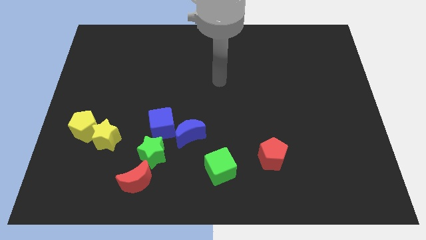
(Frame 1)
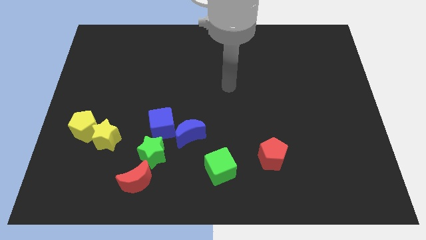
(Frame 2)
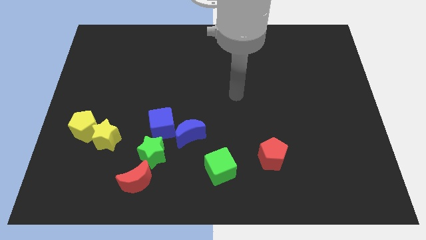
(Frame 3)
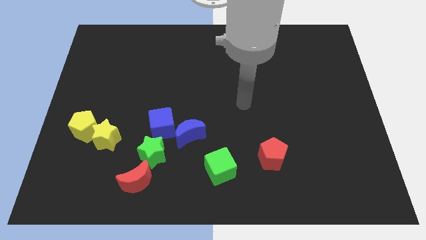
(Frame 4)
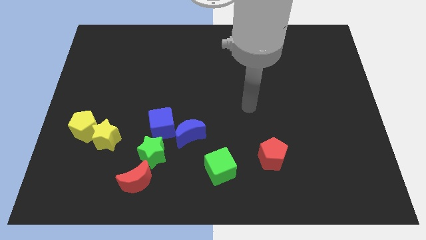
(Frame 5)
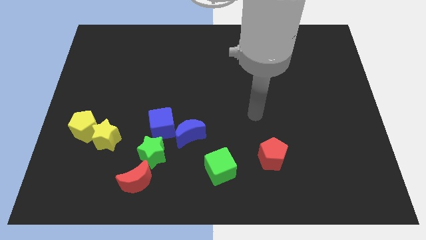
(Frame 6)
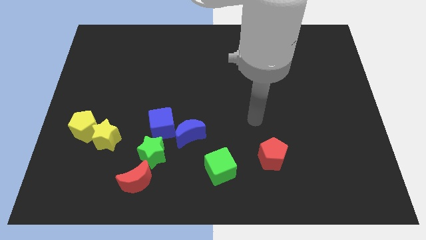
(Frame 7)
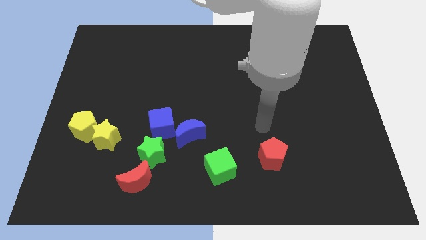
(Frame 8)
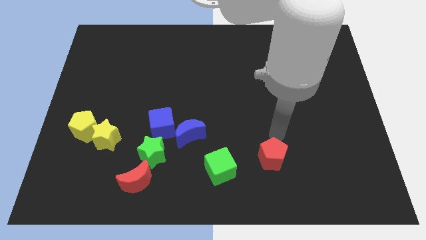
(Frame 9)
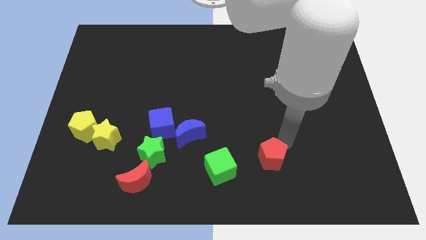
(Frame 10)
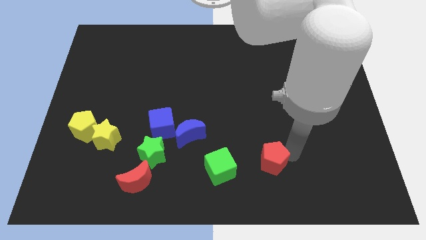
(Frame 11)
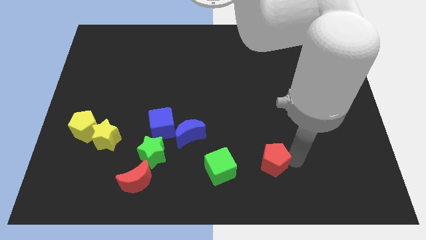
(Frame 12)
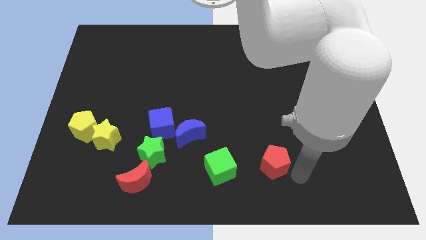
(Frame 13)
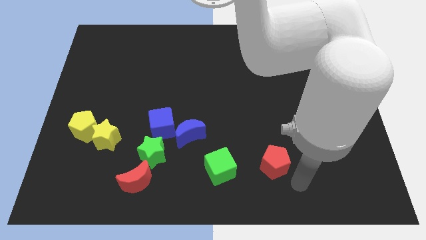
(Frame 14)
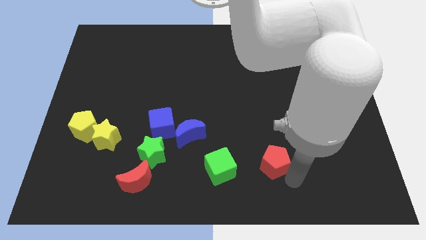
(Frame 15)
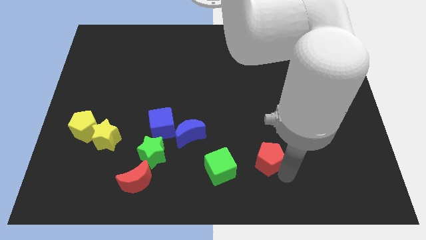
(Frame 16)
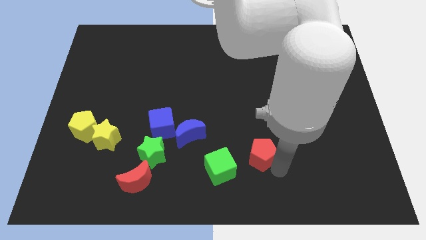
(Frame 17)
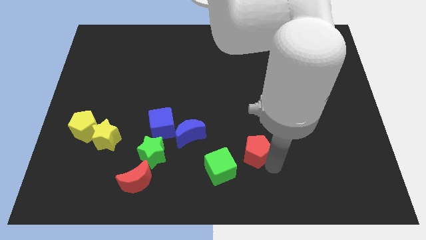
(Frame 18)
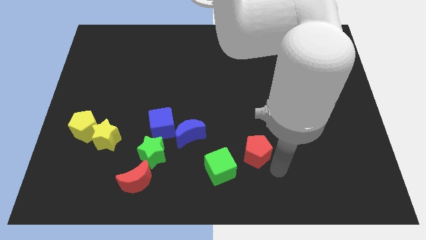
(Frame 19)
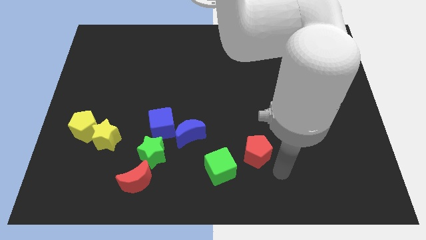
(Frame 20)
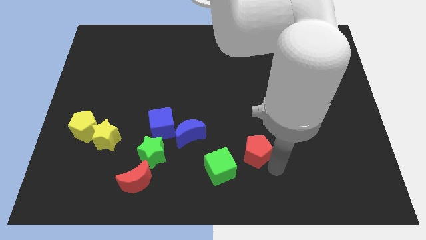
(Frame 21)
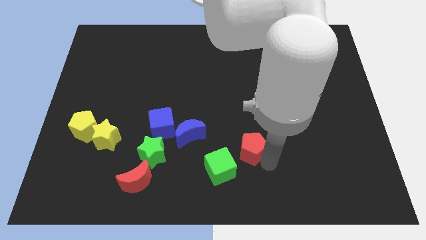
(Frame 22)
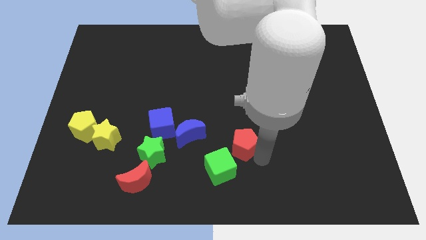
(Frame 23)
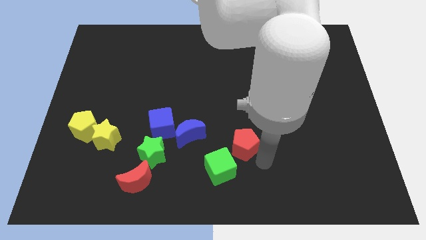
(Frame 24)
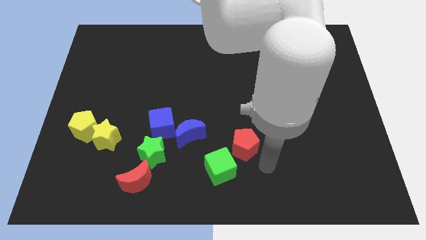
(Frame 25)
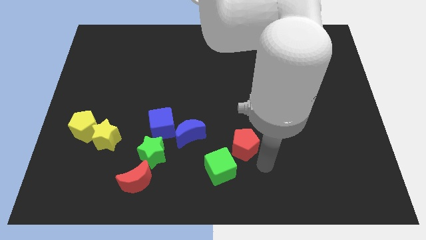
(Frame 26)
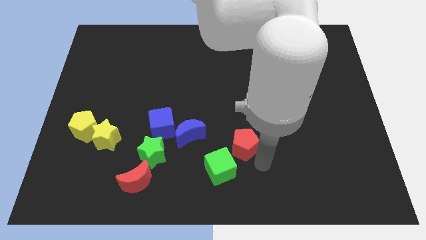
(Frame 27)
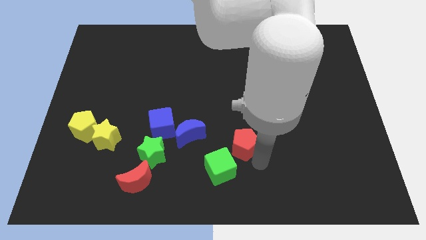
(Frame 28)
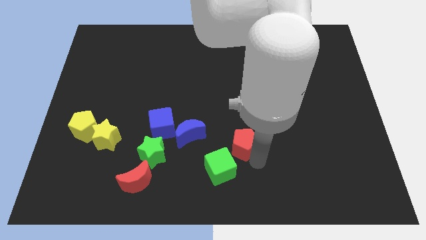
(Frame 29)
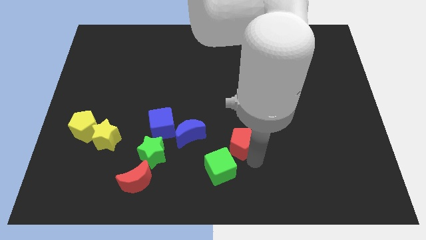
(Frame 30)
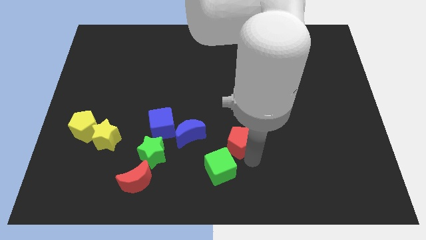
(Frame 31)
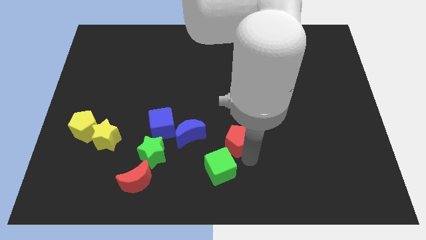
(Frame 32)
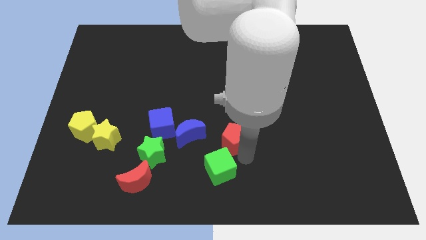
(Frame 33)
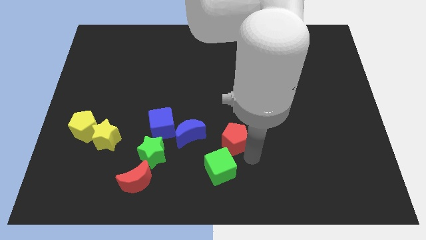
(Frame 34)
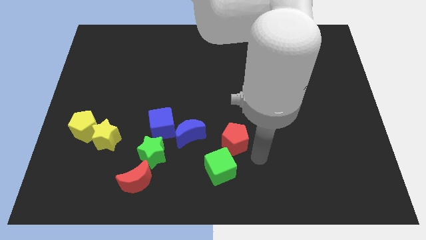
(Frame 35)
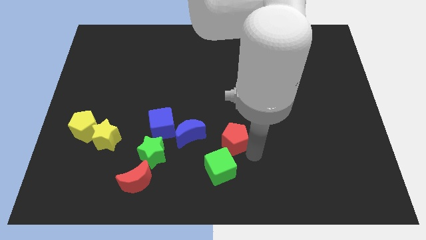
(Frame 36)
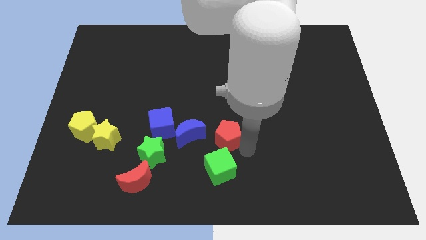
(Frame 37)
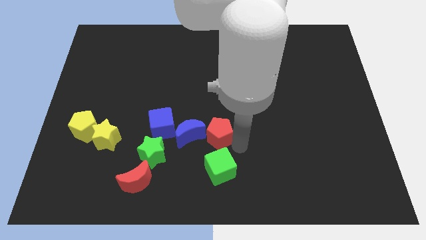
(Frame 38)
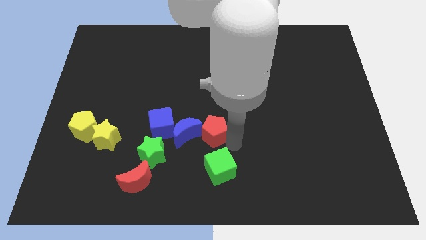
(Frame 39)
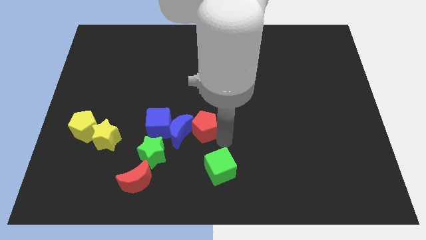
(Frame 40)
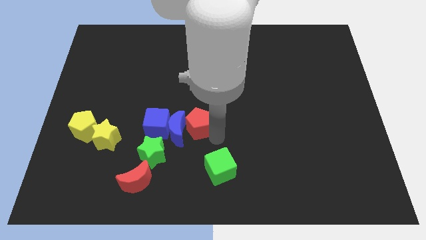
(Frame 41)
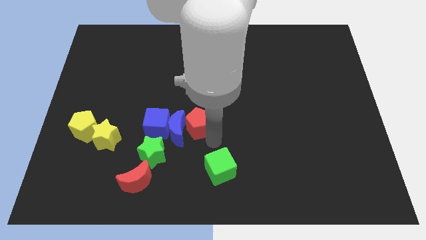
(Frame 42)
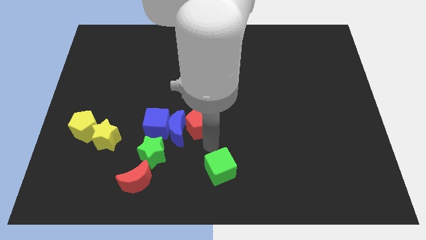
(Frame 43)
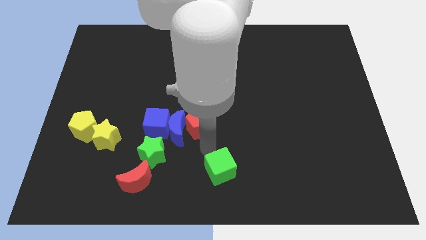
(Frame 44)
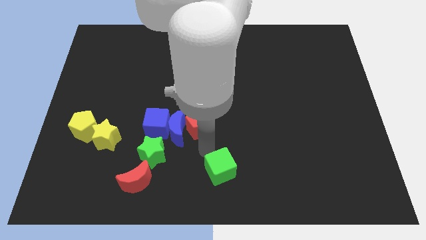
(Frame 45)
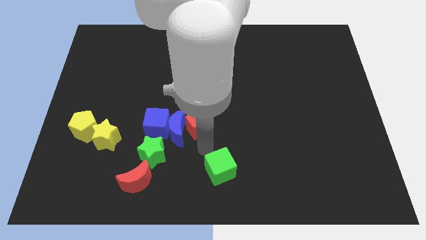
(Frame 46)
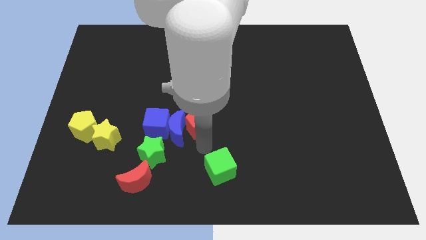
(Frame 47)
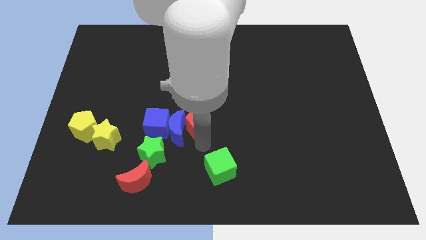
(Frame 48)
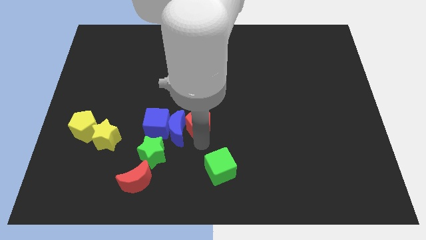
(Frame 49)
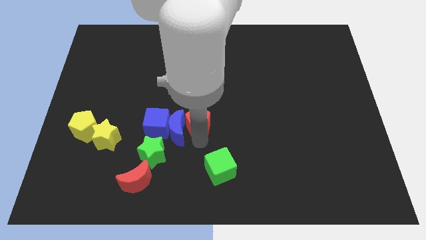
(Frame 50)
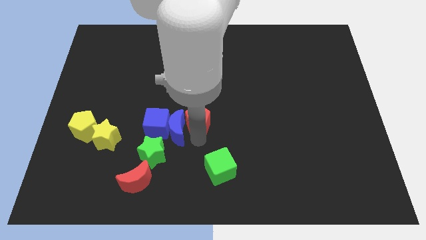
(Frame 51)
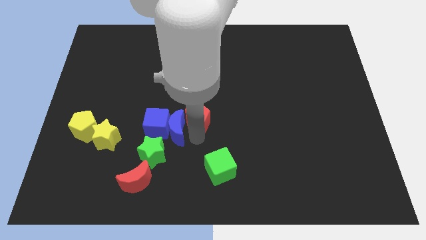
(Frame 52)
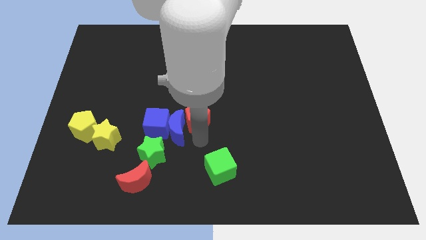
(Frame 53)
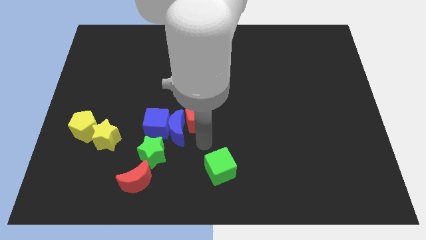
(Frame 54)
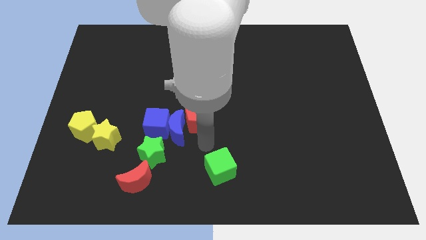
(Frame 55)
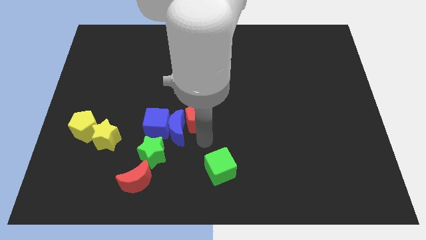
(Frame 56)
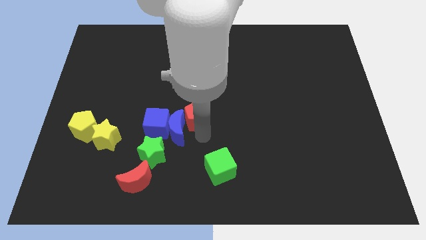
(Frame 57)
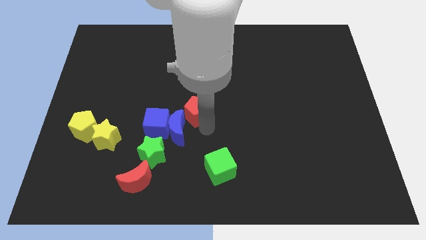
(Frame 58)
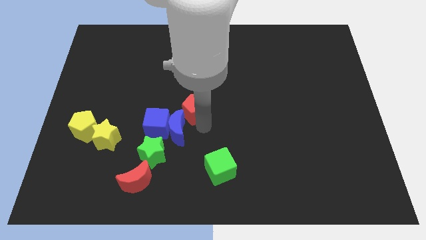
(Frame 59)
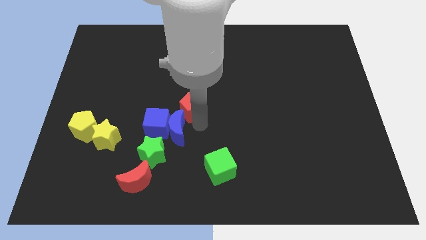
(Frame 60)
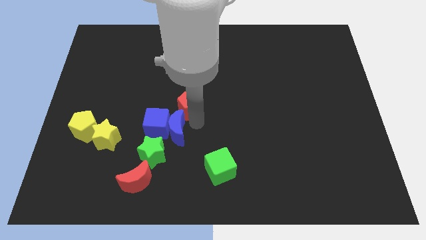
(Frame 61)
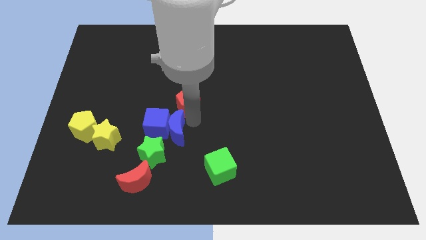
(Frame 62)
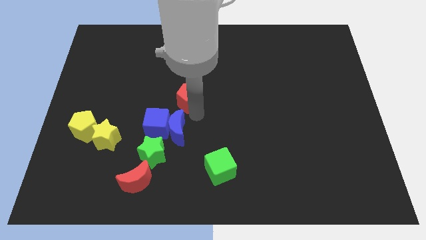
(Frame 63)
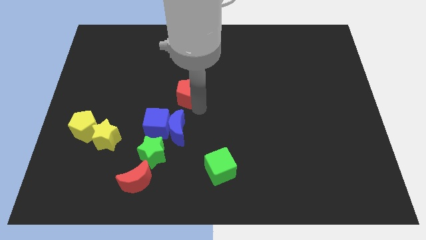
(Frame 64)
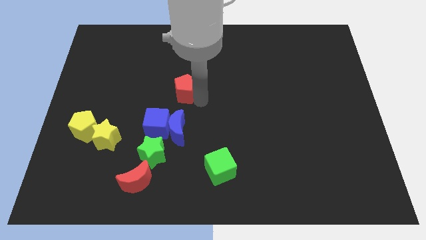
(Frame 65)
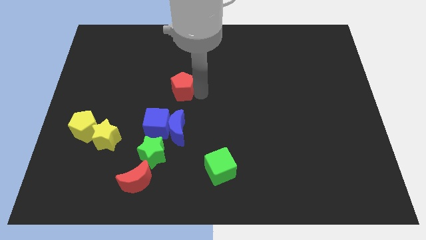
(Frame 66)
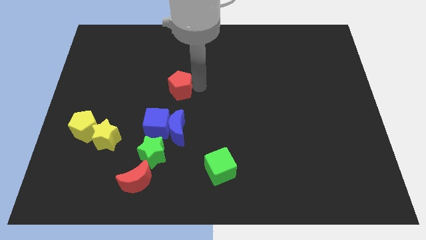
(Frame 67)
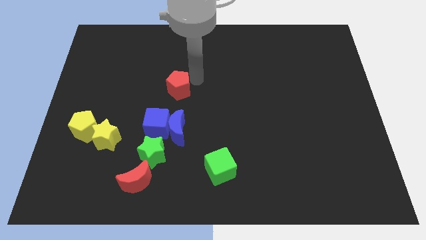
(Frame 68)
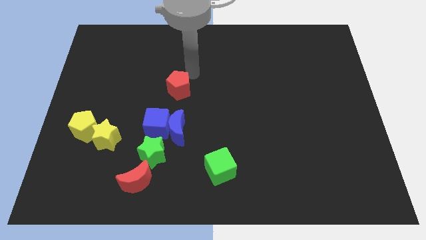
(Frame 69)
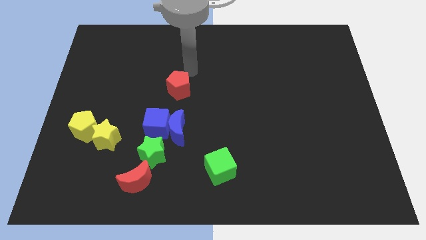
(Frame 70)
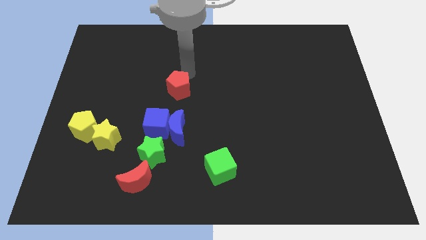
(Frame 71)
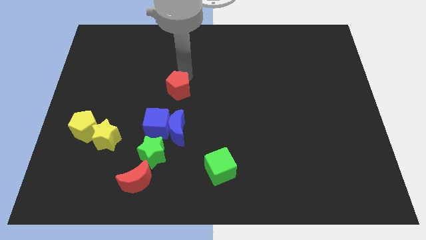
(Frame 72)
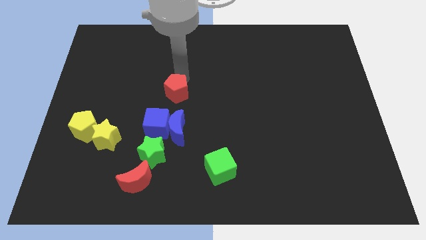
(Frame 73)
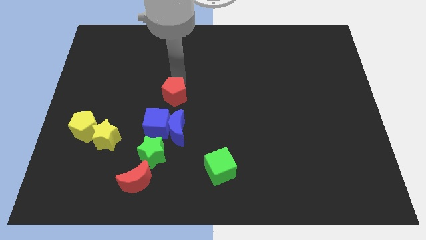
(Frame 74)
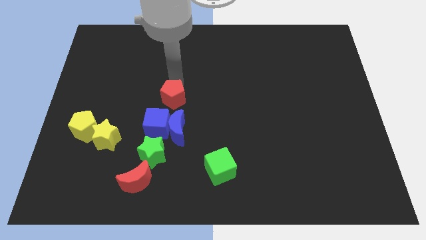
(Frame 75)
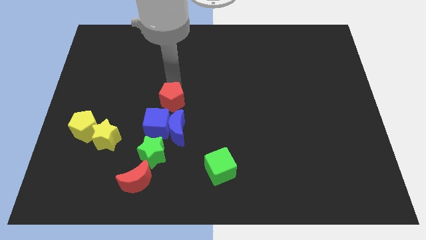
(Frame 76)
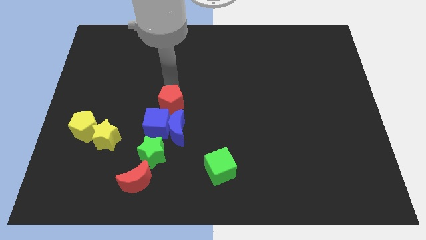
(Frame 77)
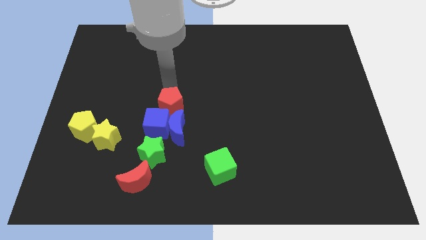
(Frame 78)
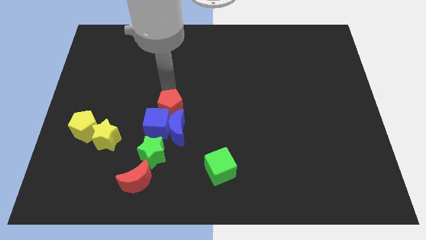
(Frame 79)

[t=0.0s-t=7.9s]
slide the red pentagon close to the blue cube
